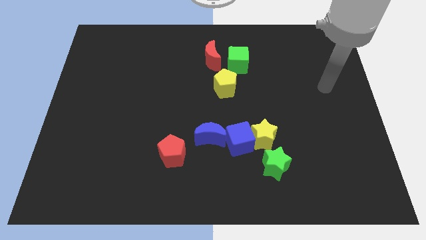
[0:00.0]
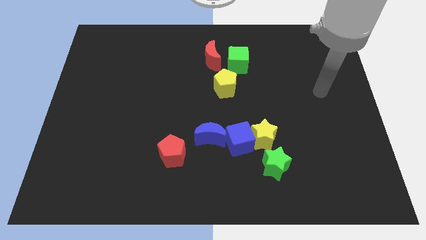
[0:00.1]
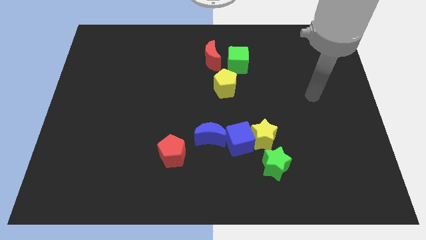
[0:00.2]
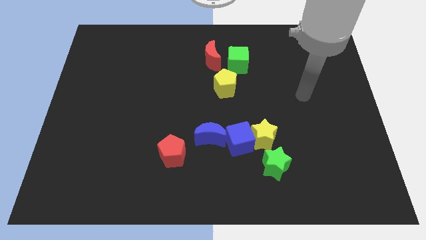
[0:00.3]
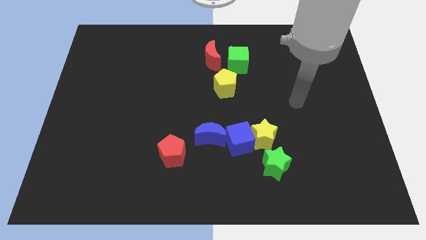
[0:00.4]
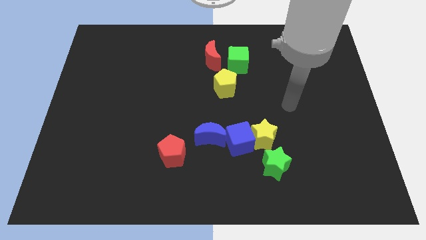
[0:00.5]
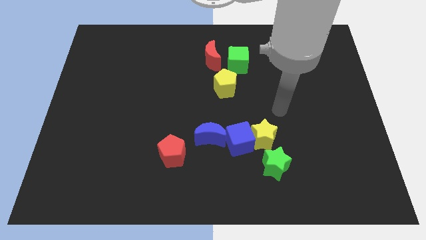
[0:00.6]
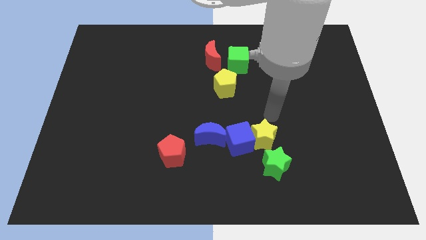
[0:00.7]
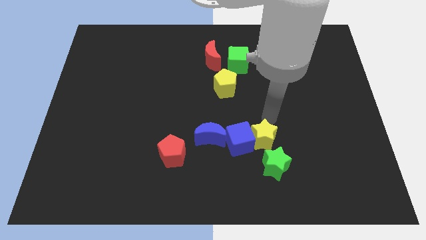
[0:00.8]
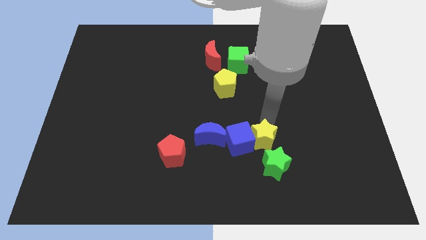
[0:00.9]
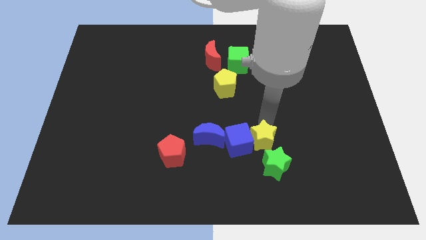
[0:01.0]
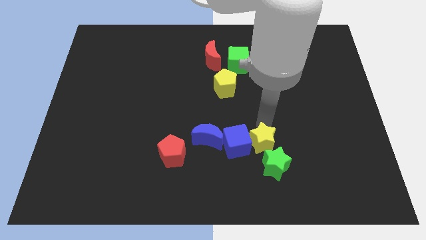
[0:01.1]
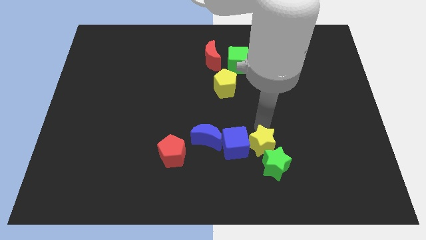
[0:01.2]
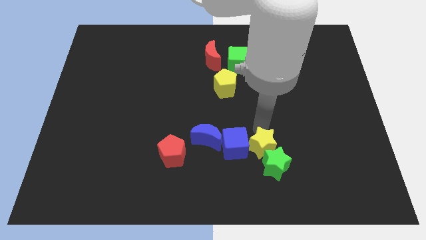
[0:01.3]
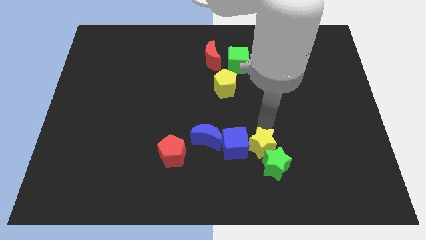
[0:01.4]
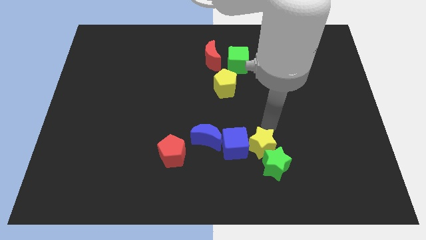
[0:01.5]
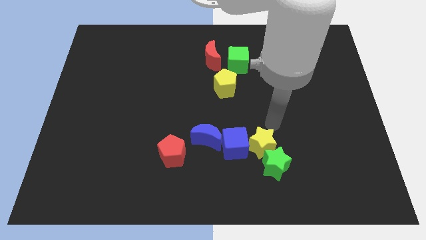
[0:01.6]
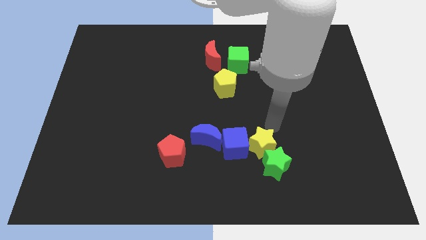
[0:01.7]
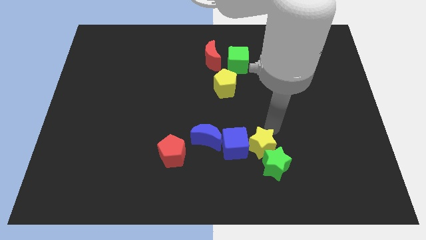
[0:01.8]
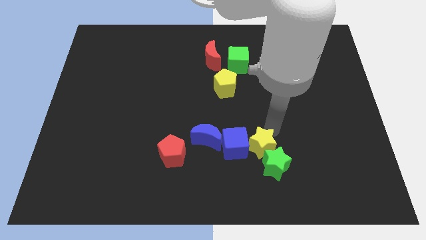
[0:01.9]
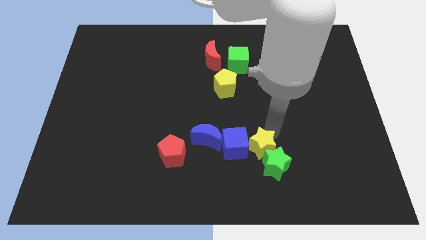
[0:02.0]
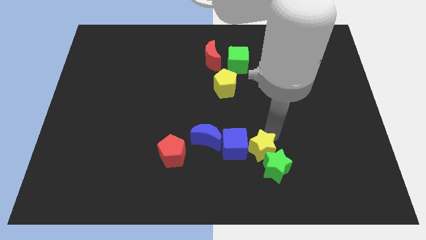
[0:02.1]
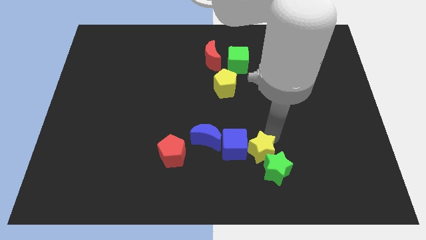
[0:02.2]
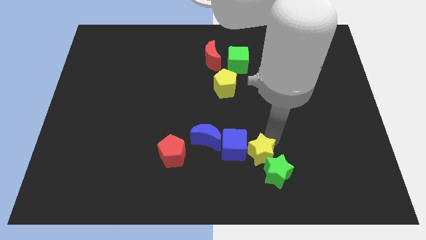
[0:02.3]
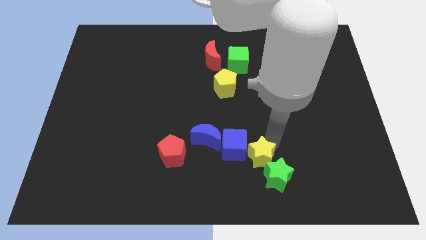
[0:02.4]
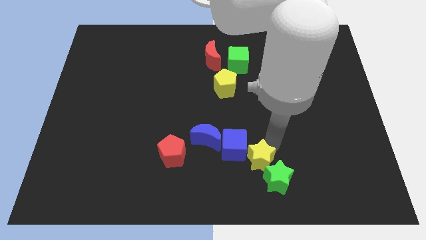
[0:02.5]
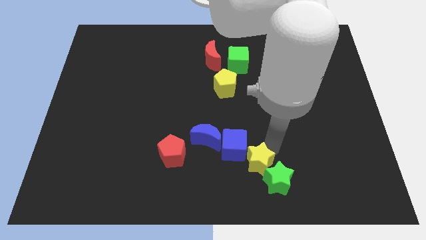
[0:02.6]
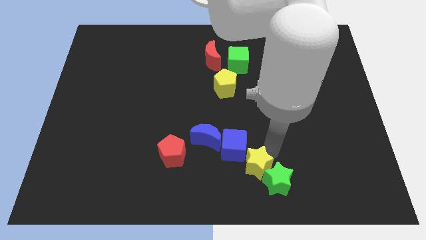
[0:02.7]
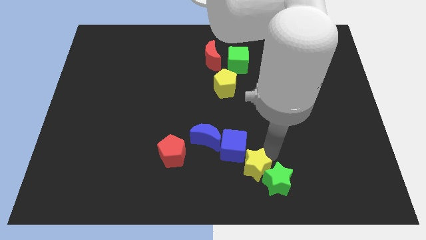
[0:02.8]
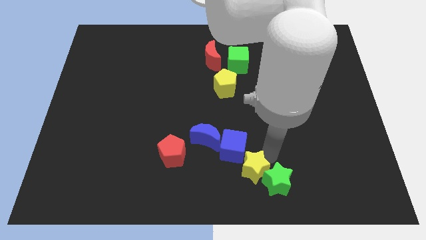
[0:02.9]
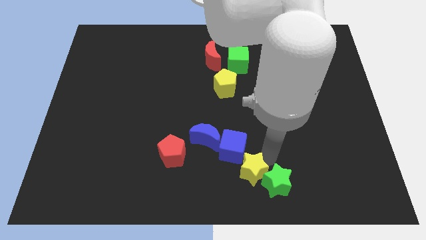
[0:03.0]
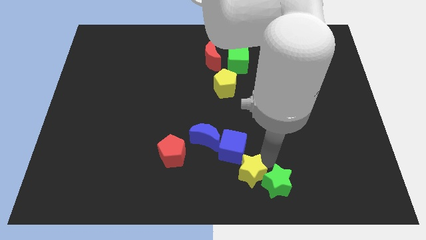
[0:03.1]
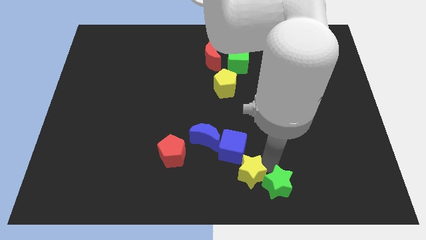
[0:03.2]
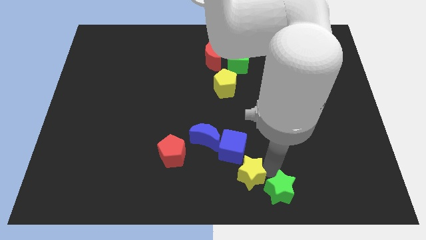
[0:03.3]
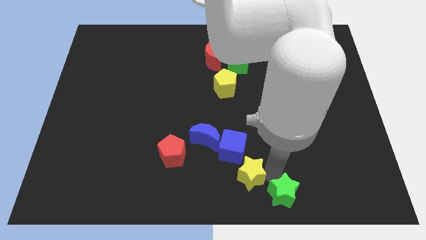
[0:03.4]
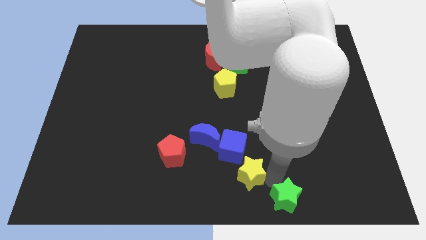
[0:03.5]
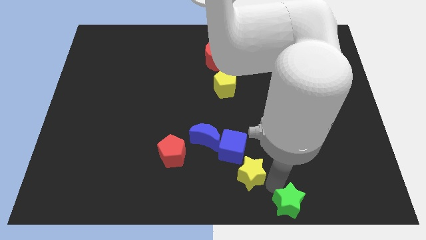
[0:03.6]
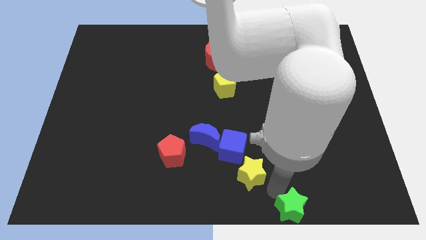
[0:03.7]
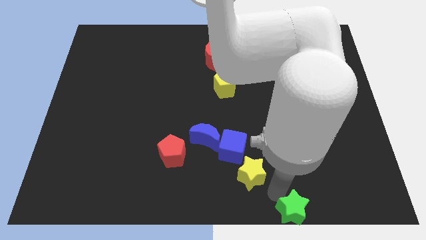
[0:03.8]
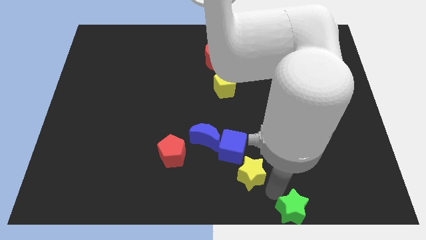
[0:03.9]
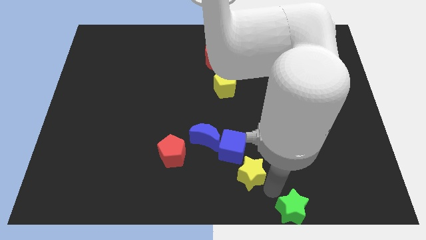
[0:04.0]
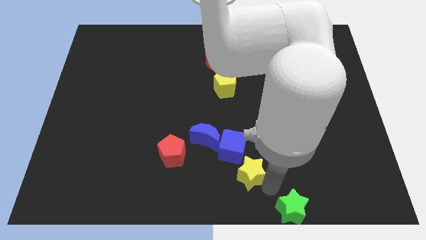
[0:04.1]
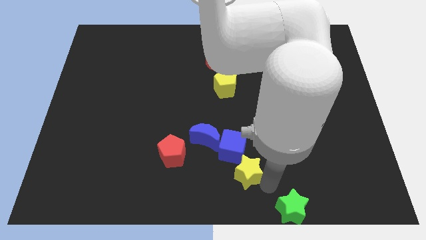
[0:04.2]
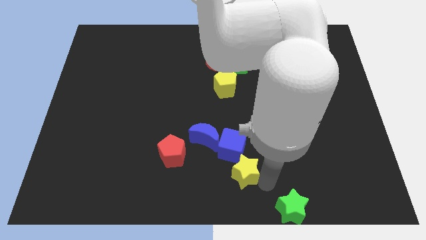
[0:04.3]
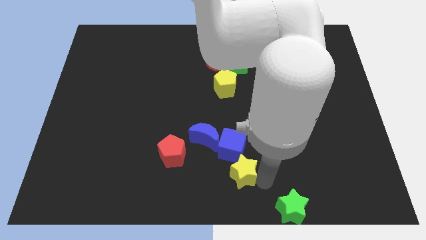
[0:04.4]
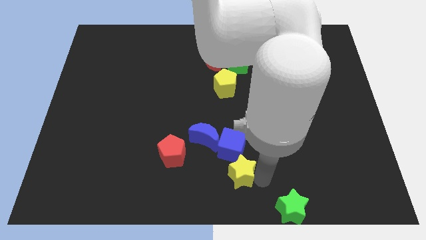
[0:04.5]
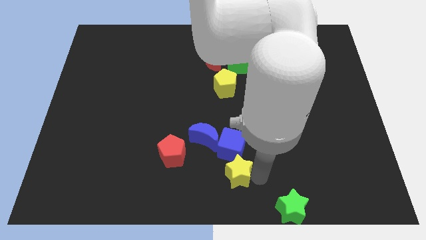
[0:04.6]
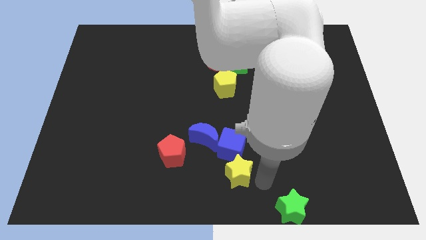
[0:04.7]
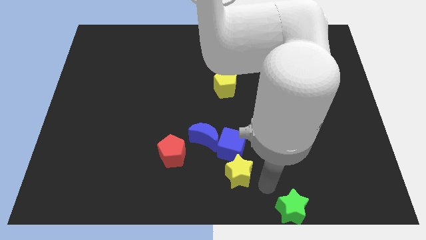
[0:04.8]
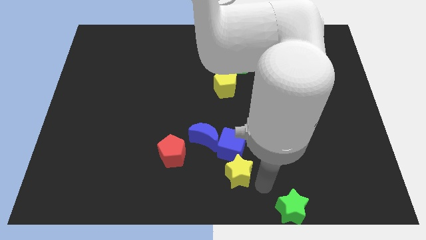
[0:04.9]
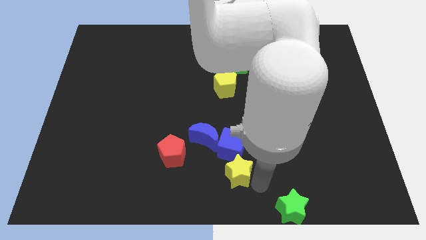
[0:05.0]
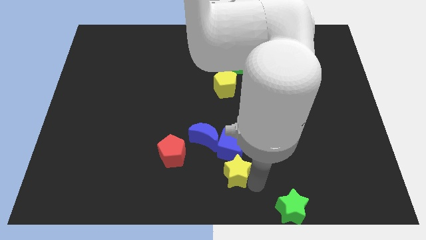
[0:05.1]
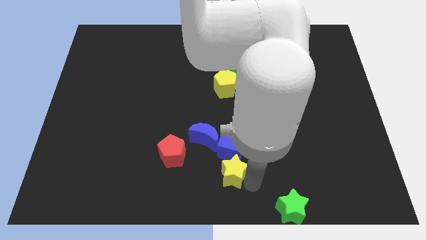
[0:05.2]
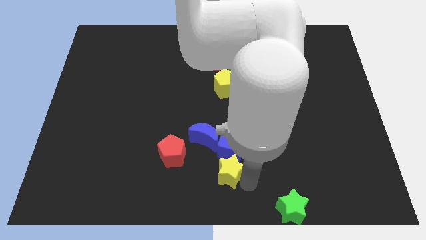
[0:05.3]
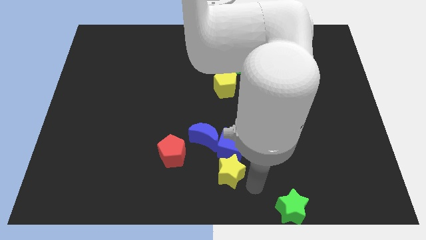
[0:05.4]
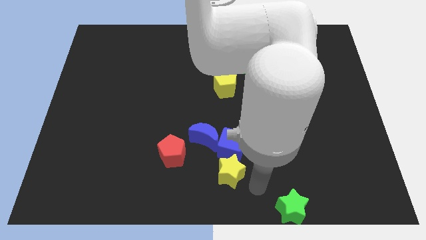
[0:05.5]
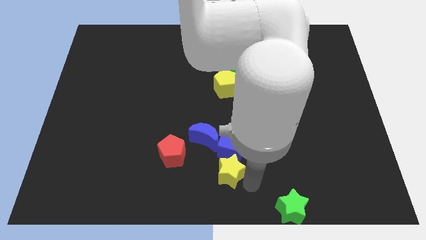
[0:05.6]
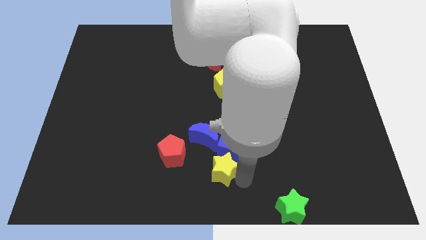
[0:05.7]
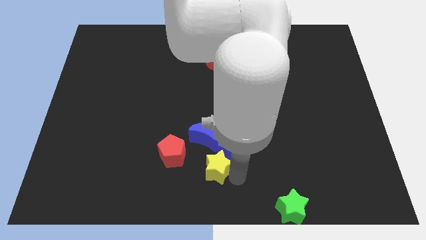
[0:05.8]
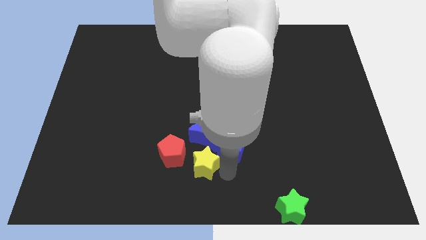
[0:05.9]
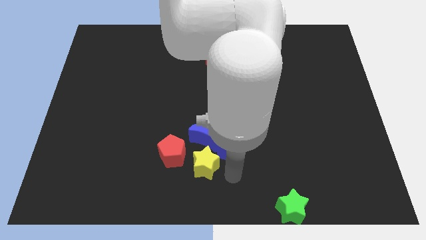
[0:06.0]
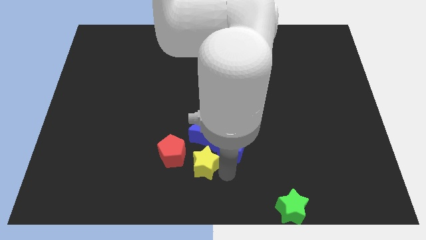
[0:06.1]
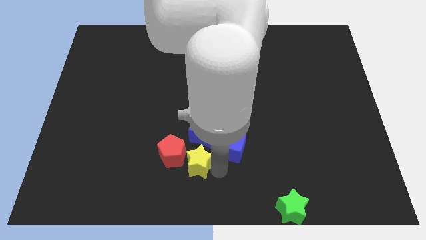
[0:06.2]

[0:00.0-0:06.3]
move the yellow star next to the red pentagon

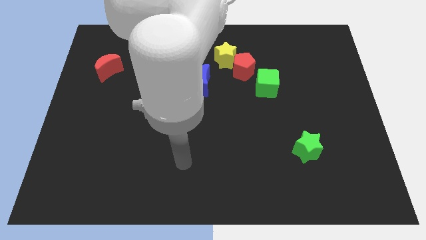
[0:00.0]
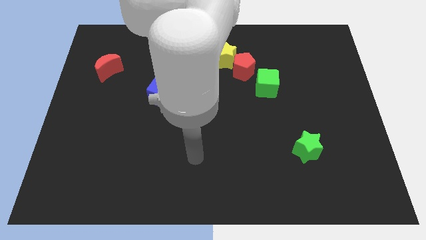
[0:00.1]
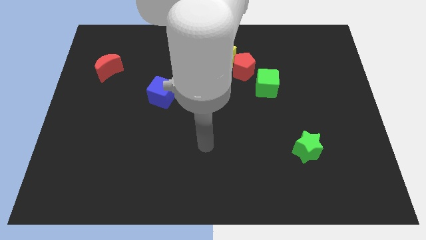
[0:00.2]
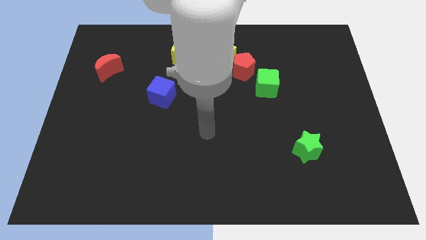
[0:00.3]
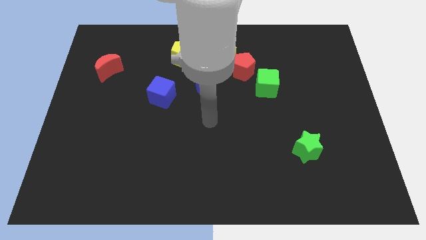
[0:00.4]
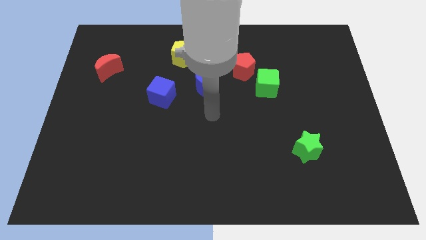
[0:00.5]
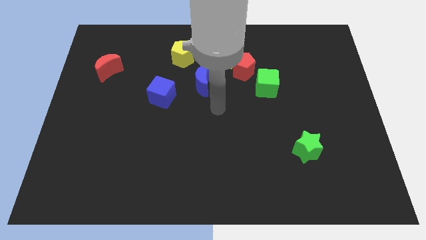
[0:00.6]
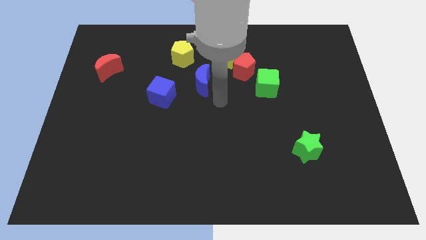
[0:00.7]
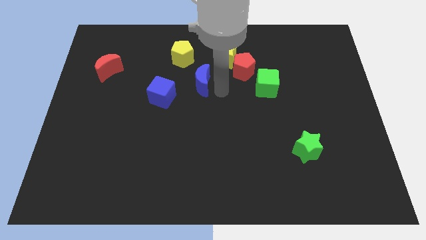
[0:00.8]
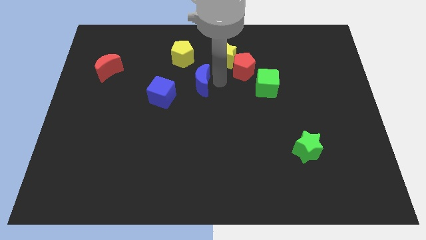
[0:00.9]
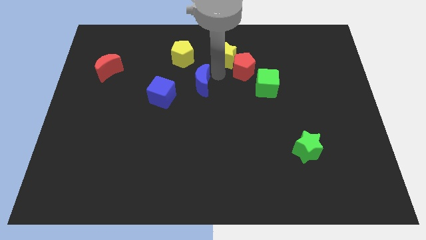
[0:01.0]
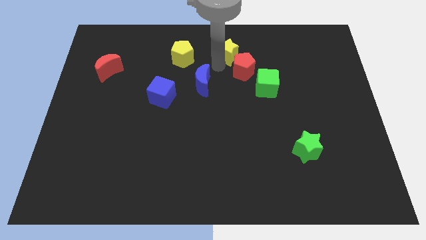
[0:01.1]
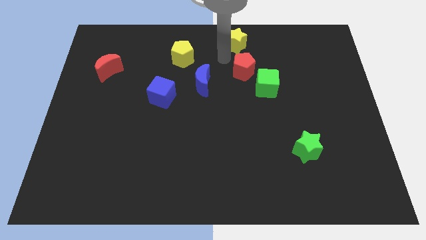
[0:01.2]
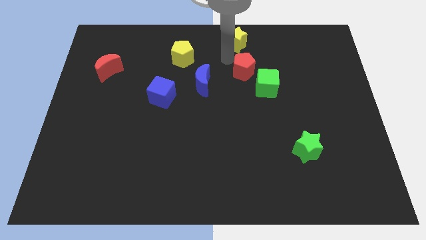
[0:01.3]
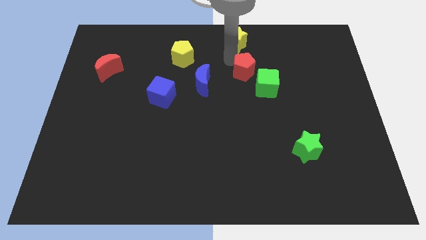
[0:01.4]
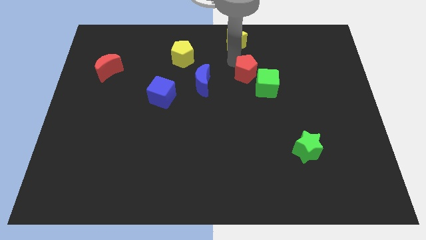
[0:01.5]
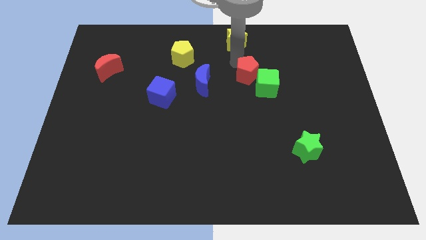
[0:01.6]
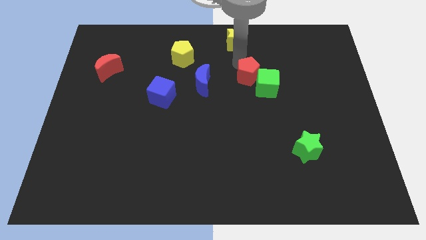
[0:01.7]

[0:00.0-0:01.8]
push the red pentagon close to the green cube
